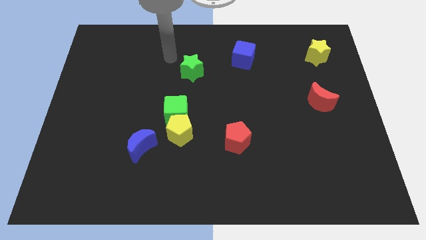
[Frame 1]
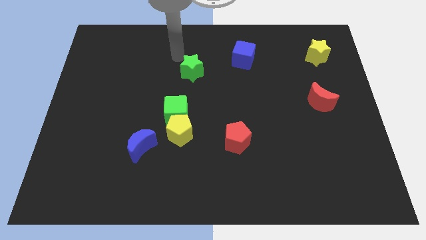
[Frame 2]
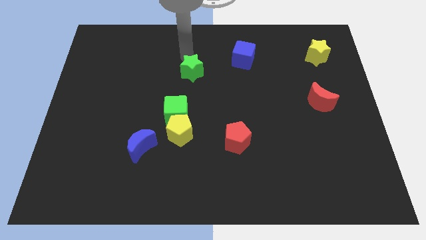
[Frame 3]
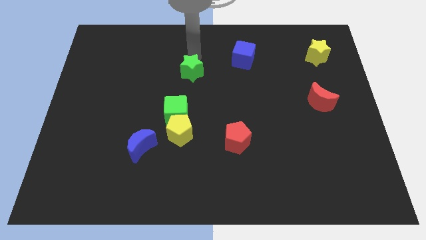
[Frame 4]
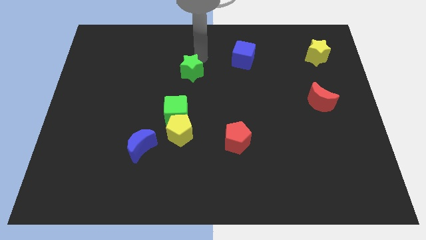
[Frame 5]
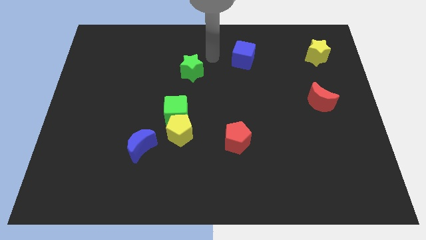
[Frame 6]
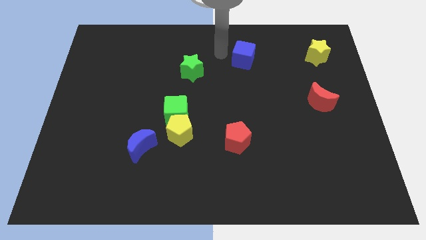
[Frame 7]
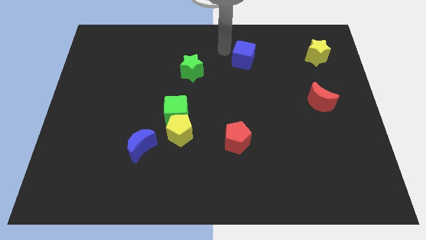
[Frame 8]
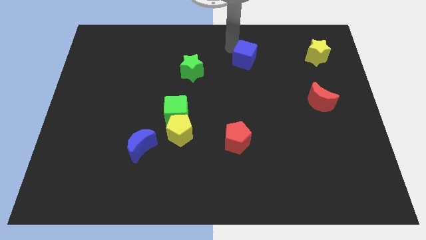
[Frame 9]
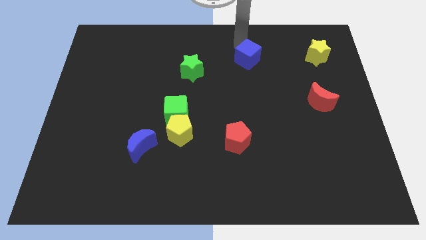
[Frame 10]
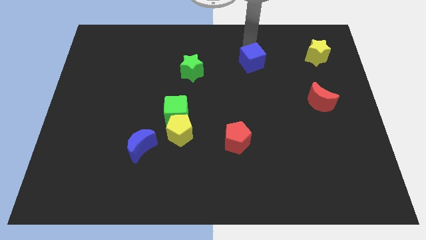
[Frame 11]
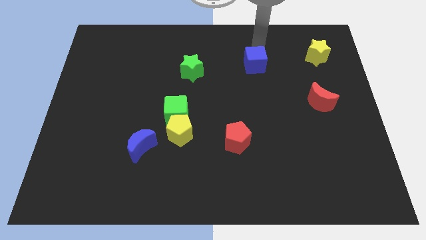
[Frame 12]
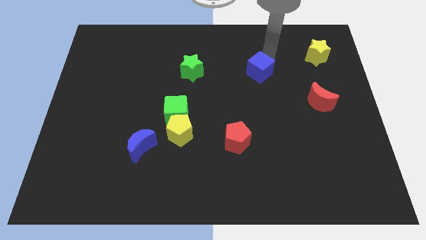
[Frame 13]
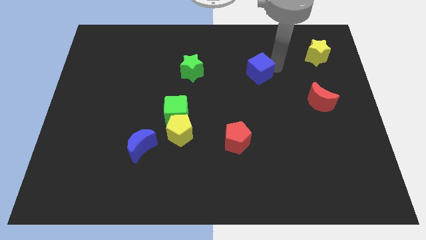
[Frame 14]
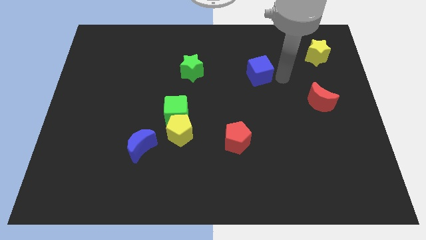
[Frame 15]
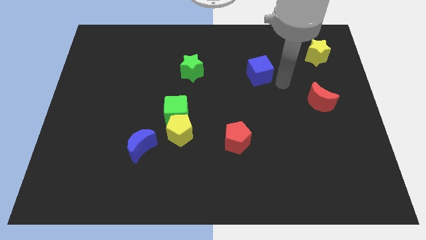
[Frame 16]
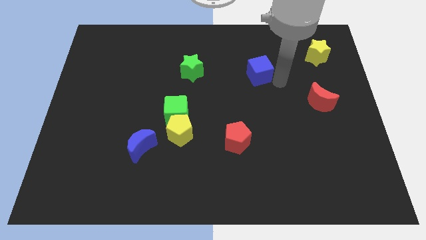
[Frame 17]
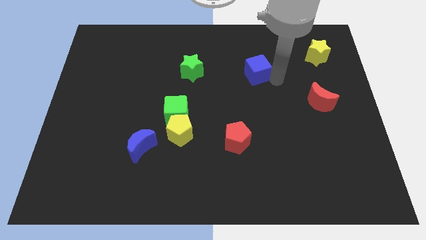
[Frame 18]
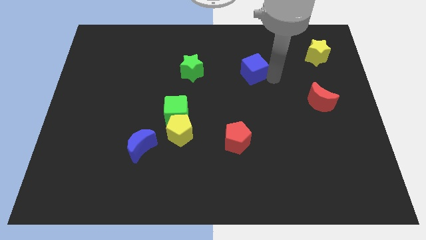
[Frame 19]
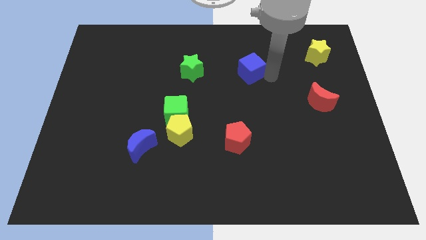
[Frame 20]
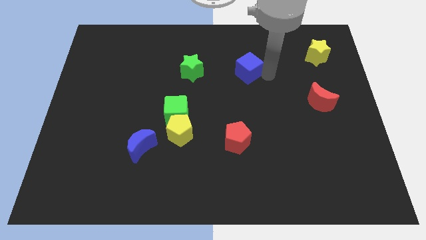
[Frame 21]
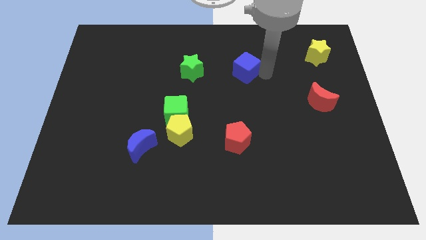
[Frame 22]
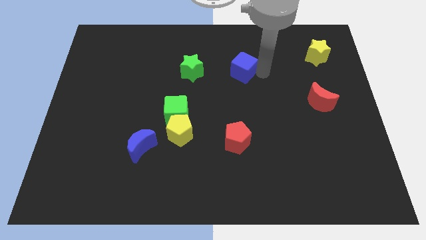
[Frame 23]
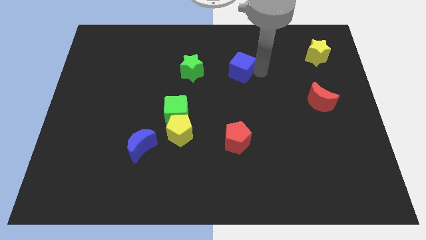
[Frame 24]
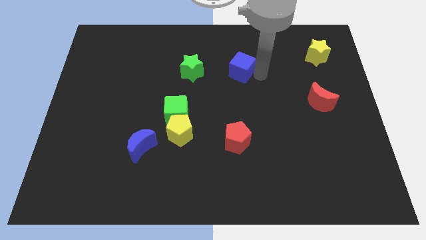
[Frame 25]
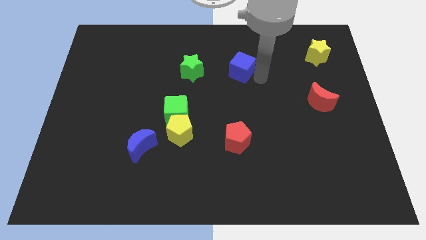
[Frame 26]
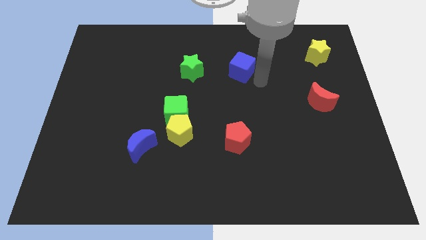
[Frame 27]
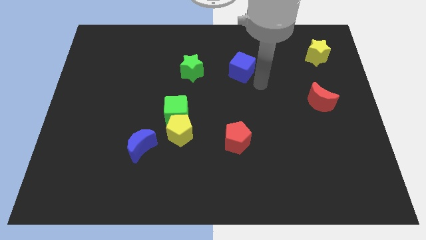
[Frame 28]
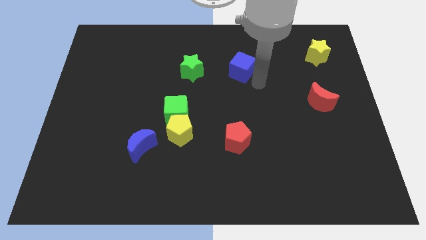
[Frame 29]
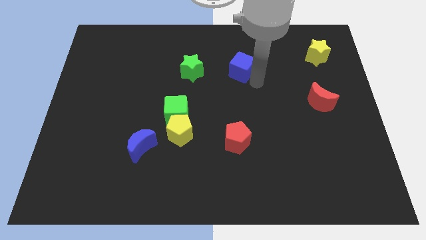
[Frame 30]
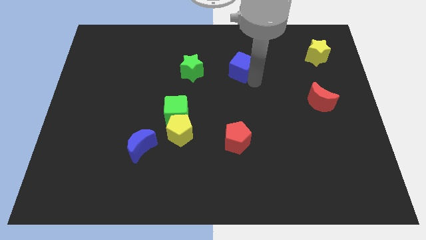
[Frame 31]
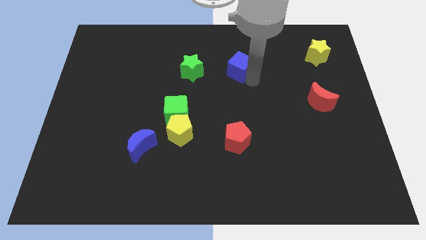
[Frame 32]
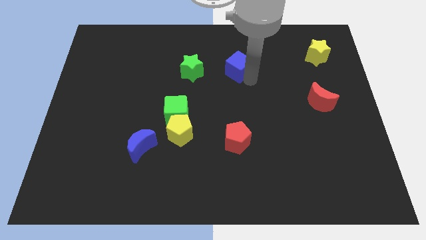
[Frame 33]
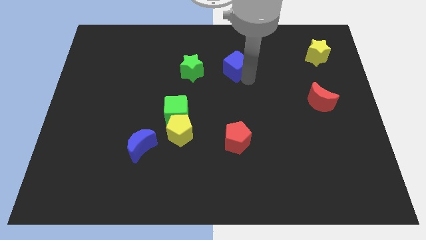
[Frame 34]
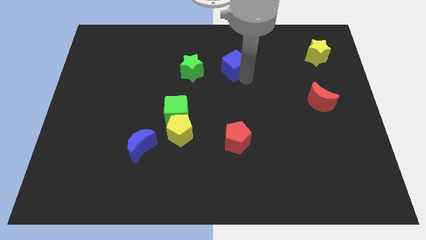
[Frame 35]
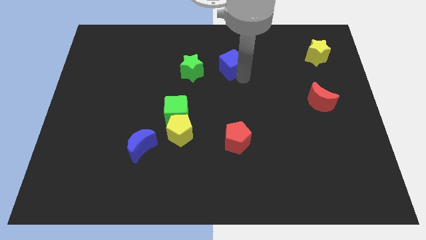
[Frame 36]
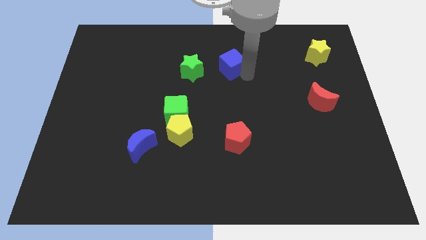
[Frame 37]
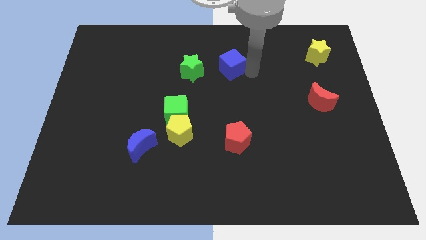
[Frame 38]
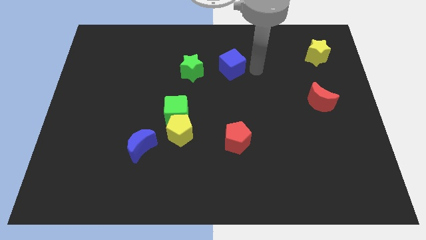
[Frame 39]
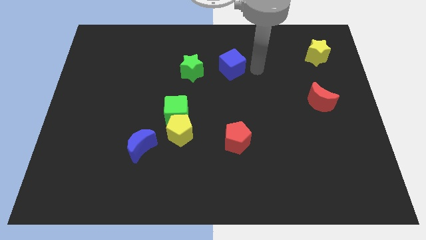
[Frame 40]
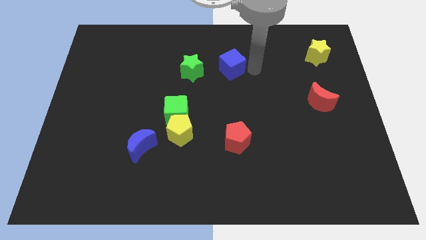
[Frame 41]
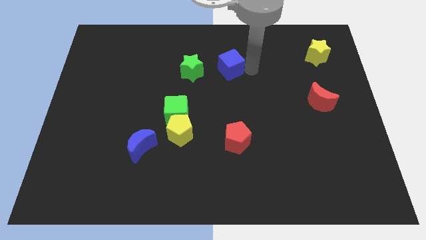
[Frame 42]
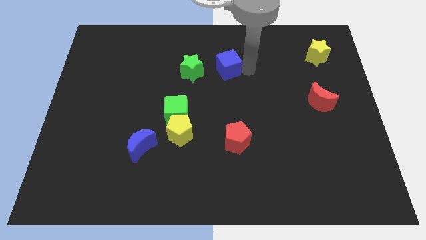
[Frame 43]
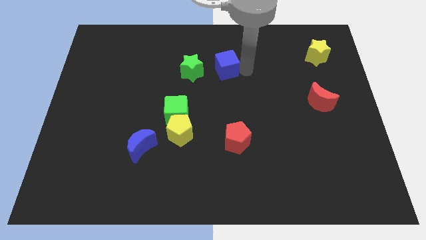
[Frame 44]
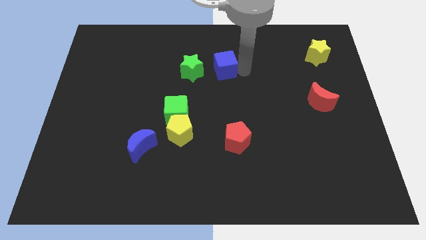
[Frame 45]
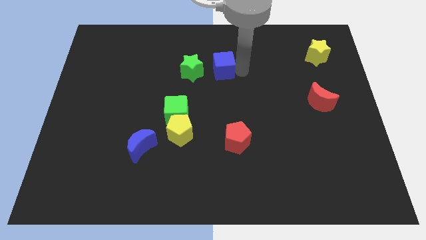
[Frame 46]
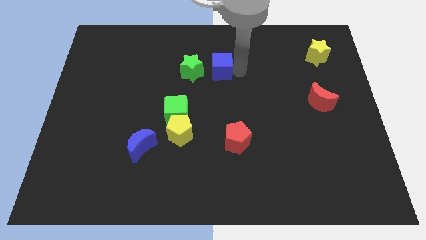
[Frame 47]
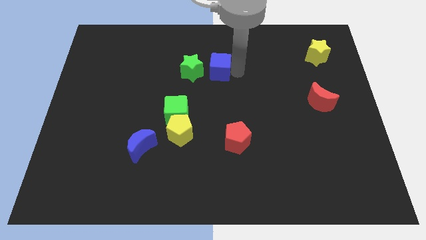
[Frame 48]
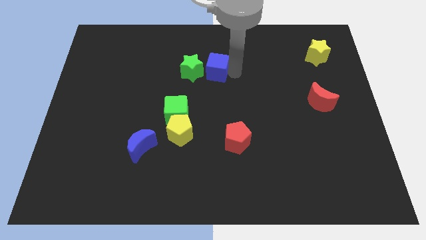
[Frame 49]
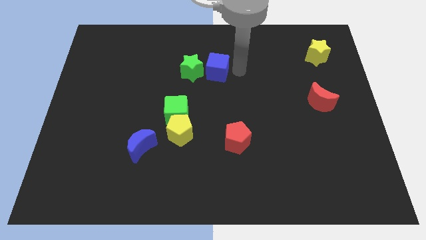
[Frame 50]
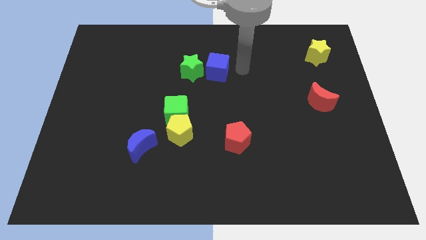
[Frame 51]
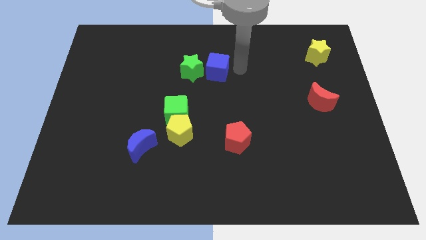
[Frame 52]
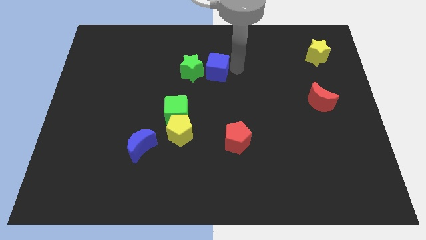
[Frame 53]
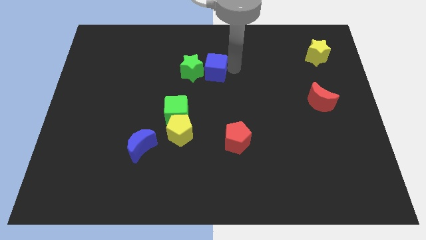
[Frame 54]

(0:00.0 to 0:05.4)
put the blue cube towards the green star

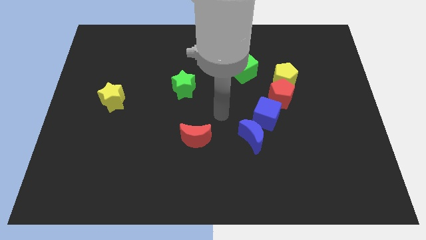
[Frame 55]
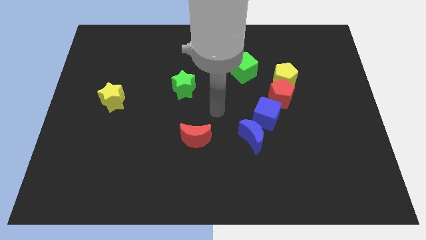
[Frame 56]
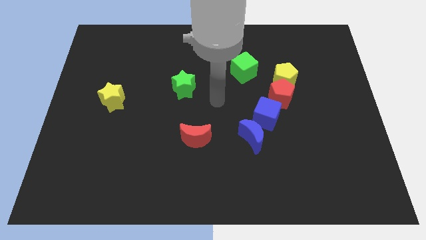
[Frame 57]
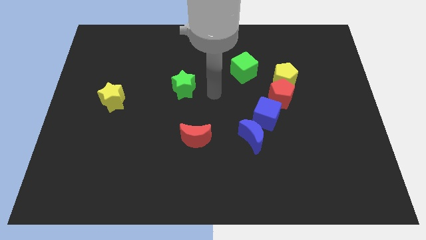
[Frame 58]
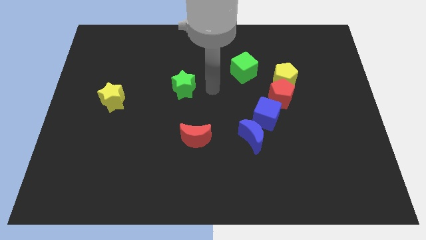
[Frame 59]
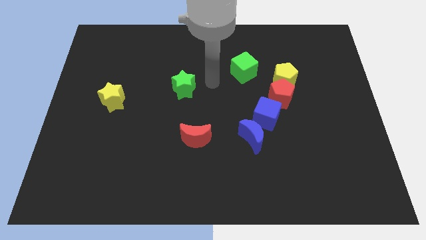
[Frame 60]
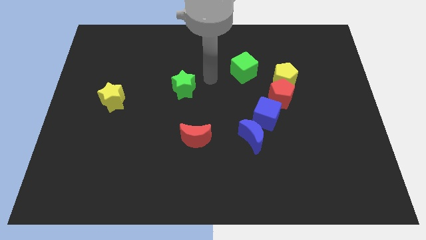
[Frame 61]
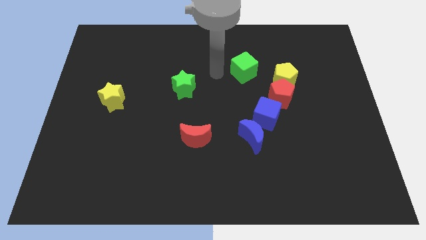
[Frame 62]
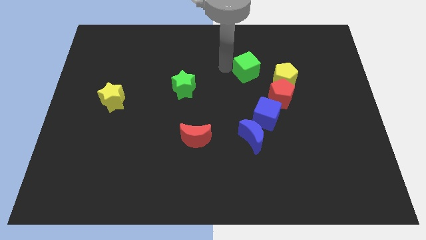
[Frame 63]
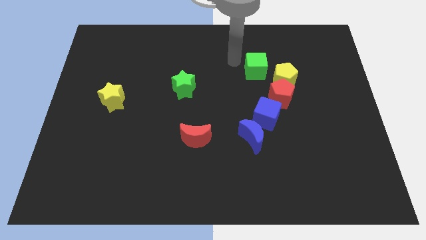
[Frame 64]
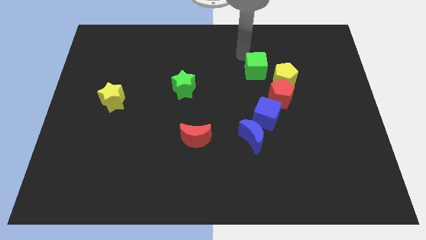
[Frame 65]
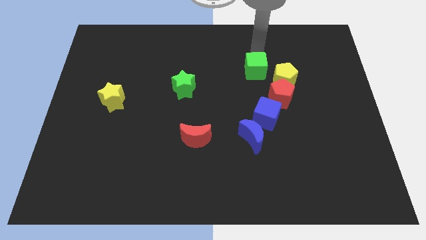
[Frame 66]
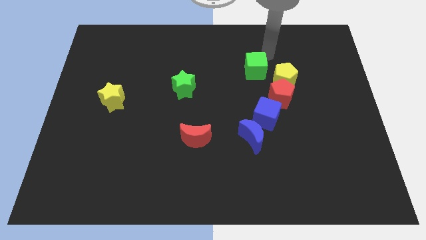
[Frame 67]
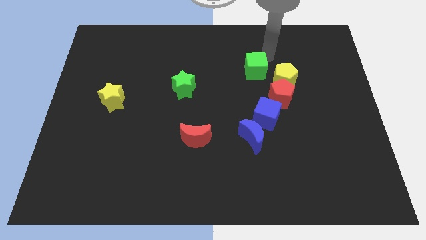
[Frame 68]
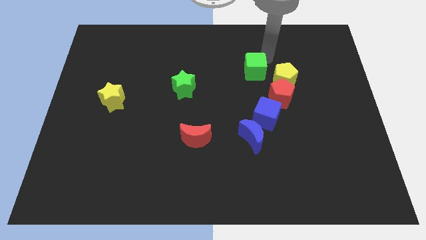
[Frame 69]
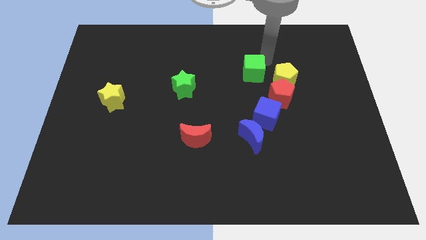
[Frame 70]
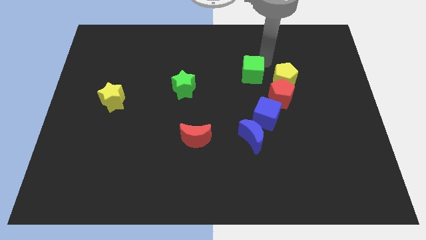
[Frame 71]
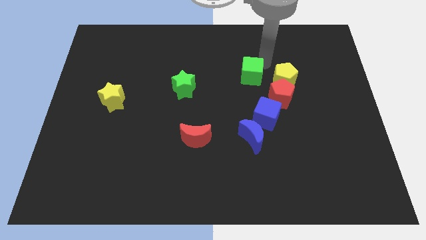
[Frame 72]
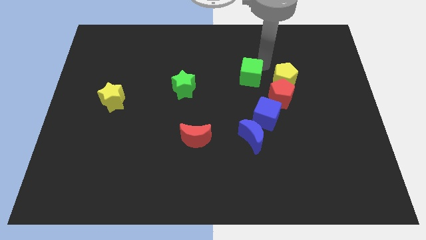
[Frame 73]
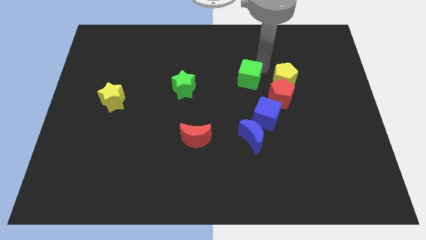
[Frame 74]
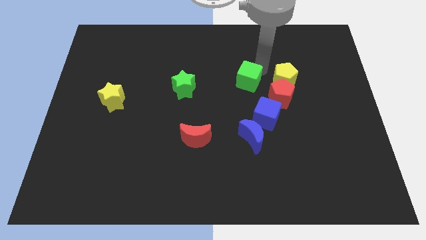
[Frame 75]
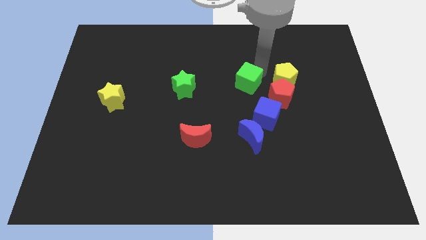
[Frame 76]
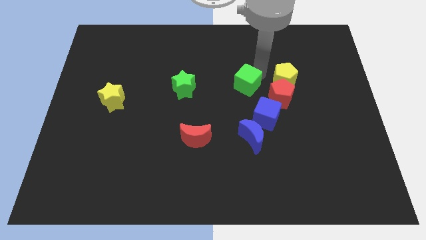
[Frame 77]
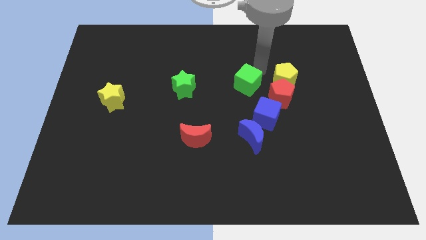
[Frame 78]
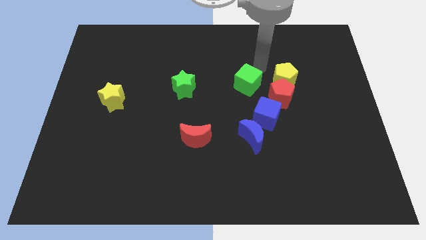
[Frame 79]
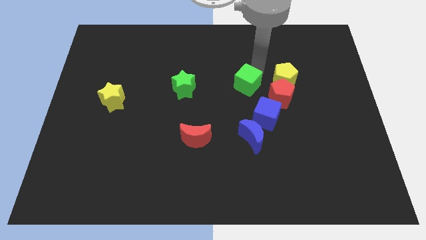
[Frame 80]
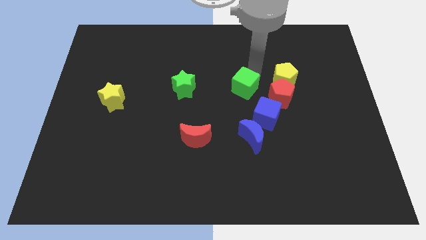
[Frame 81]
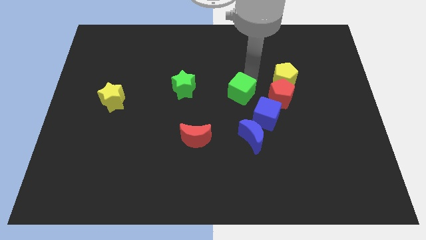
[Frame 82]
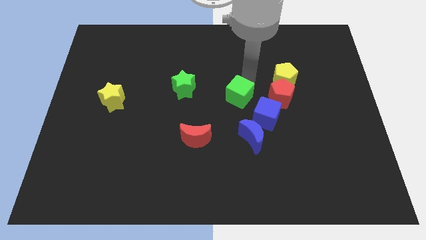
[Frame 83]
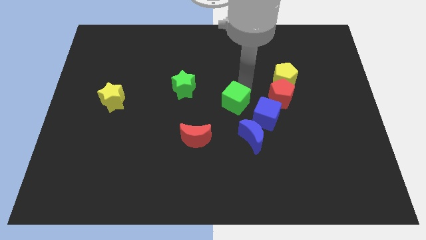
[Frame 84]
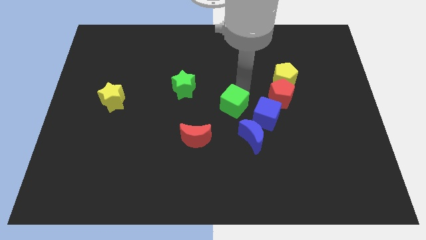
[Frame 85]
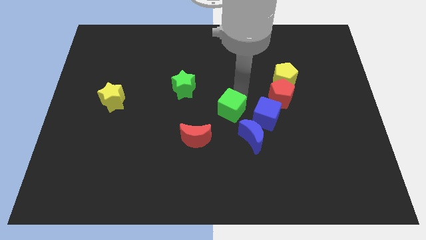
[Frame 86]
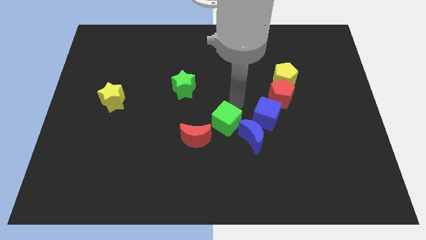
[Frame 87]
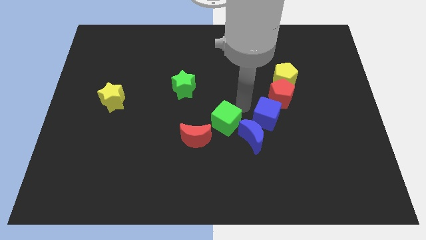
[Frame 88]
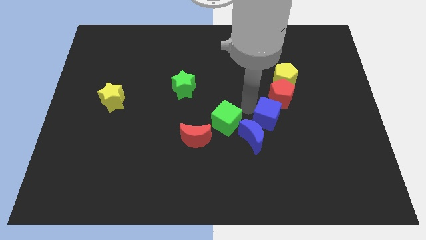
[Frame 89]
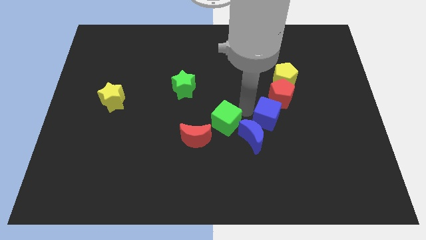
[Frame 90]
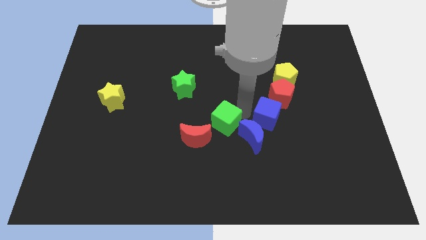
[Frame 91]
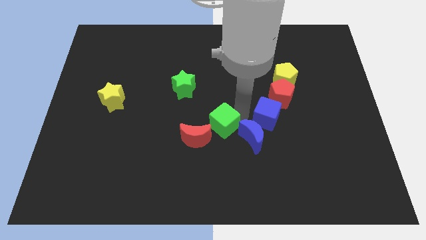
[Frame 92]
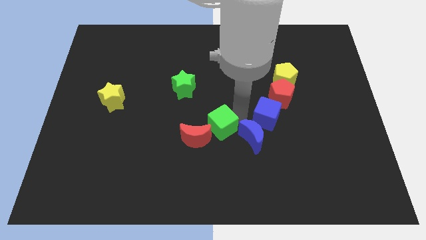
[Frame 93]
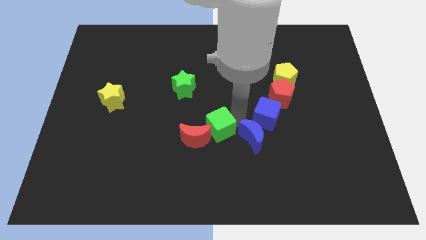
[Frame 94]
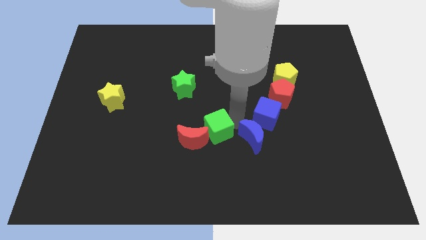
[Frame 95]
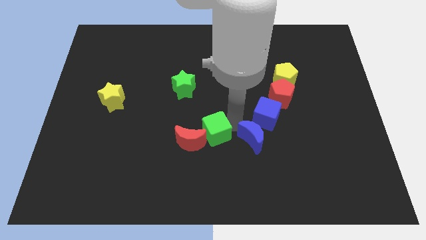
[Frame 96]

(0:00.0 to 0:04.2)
put the green cube towards the red moon
